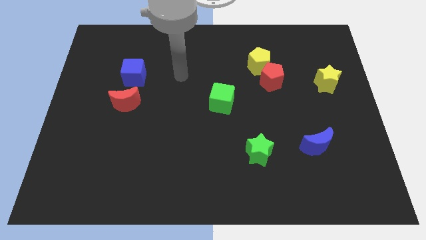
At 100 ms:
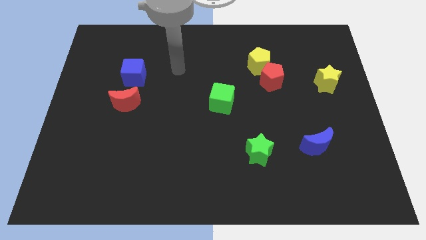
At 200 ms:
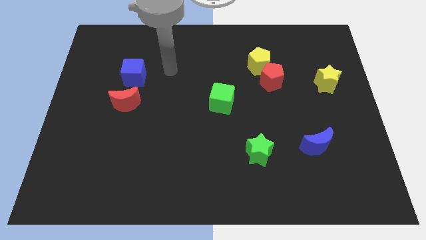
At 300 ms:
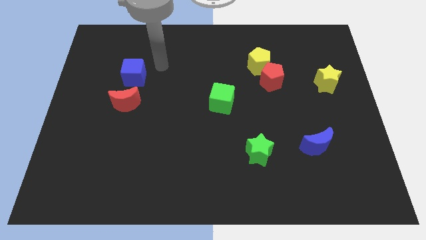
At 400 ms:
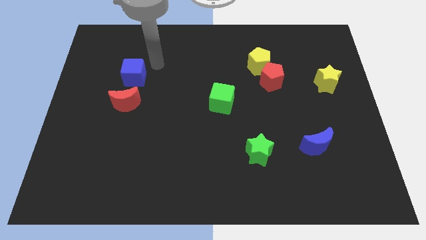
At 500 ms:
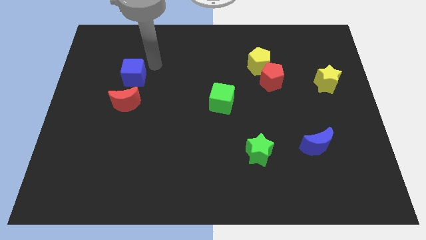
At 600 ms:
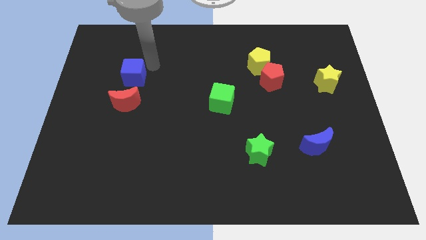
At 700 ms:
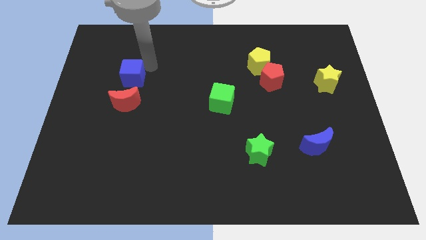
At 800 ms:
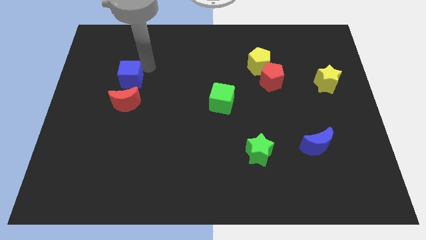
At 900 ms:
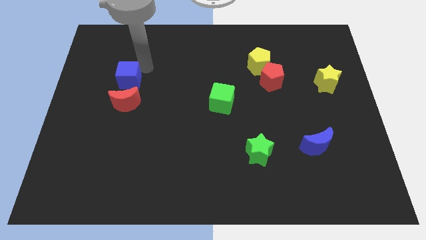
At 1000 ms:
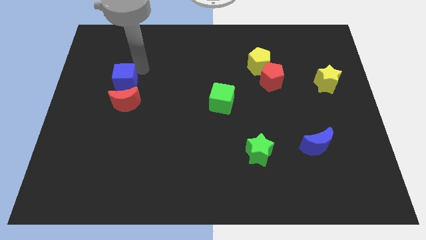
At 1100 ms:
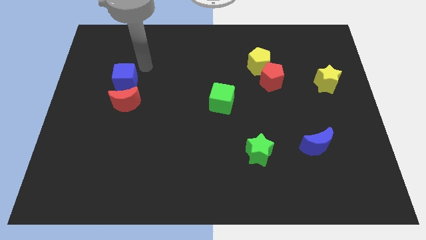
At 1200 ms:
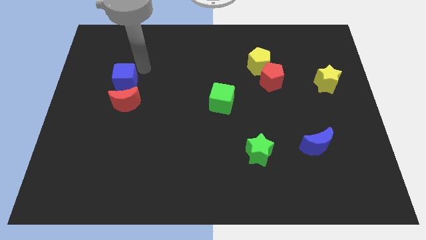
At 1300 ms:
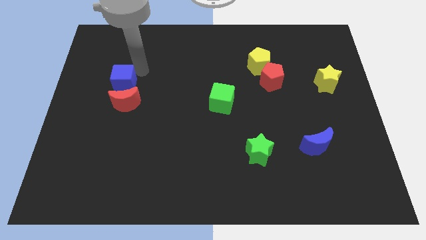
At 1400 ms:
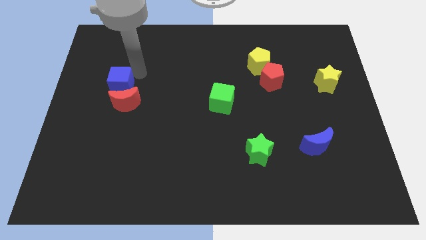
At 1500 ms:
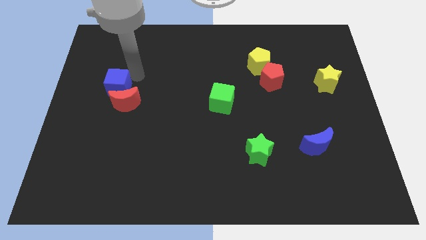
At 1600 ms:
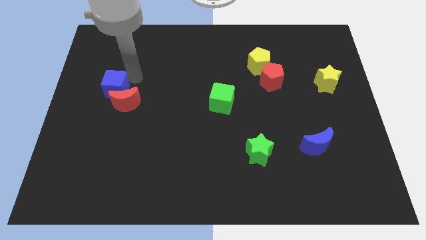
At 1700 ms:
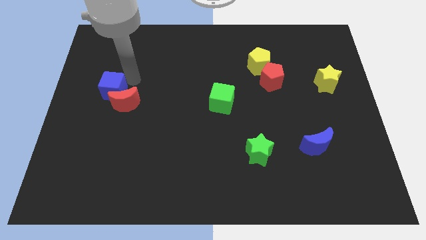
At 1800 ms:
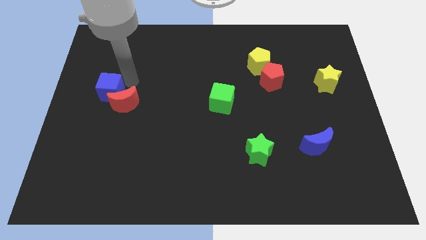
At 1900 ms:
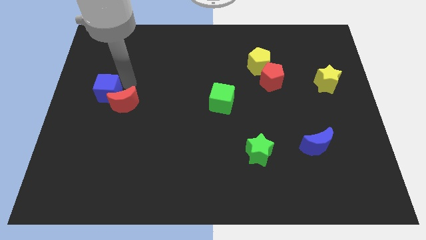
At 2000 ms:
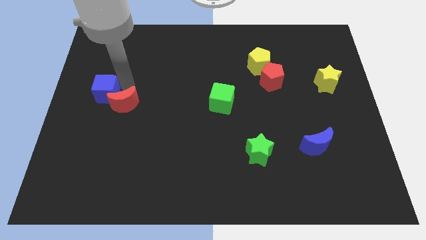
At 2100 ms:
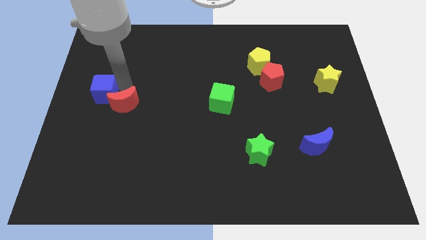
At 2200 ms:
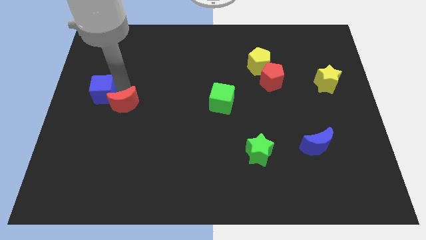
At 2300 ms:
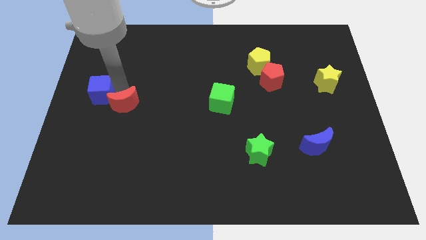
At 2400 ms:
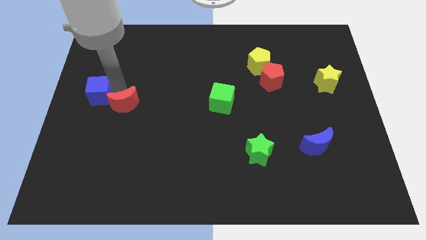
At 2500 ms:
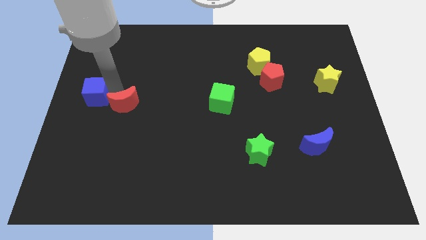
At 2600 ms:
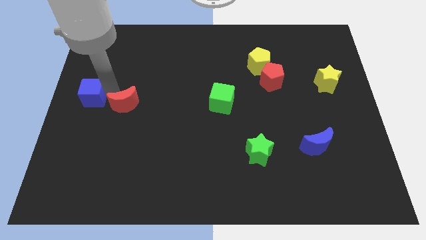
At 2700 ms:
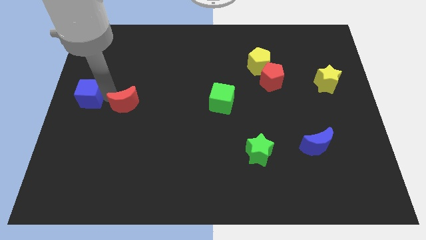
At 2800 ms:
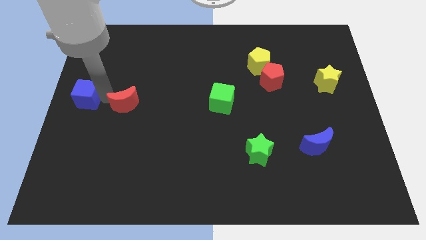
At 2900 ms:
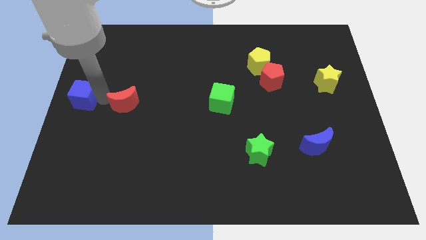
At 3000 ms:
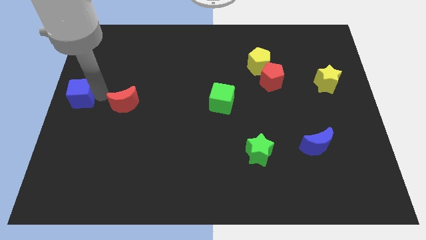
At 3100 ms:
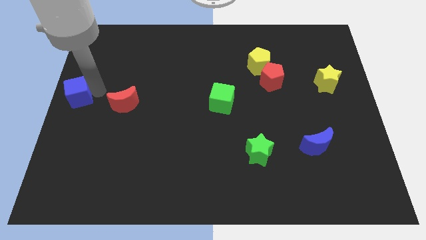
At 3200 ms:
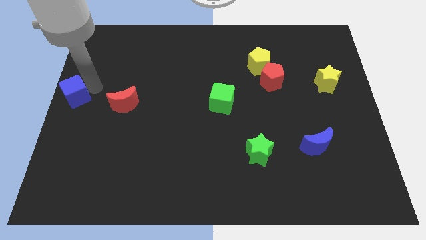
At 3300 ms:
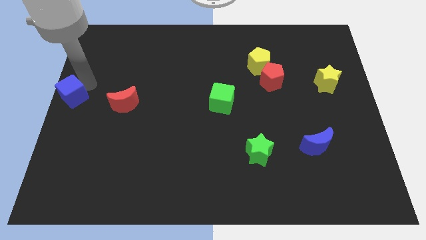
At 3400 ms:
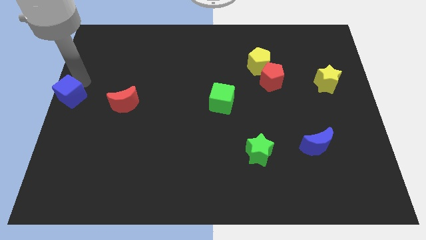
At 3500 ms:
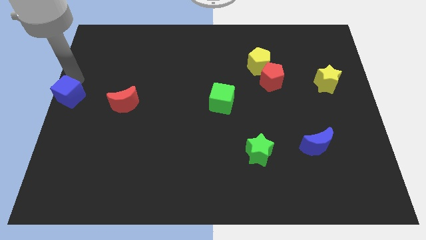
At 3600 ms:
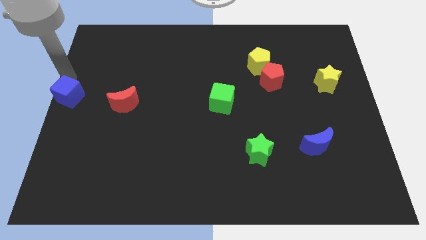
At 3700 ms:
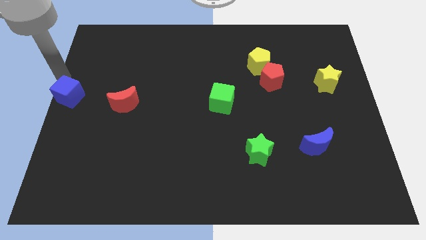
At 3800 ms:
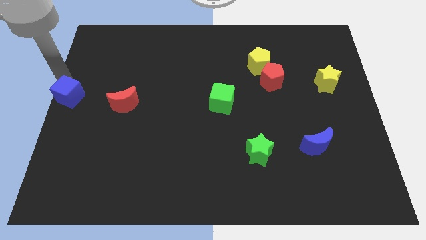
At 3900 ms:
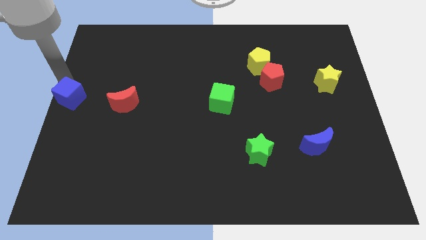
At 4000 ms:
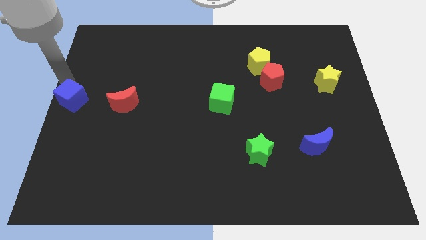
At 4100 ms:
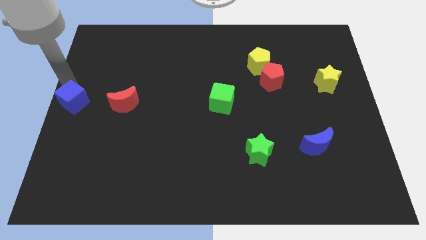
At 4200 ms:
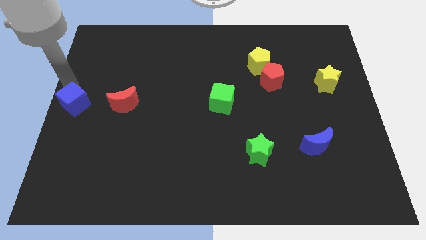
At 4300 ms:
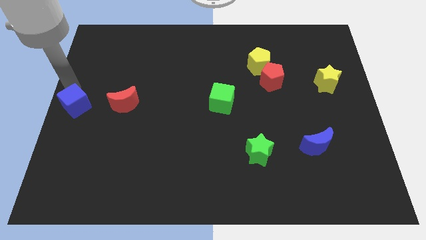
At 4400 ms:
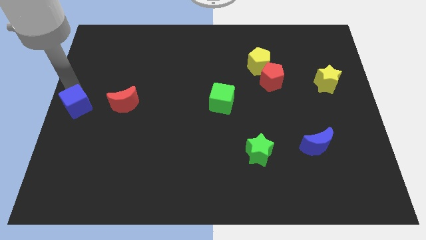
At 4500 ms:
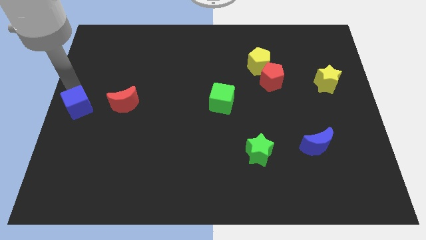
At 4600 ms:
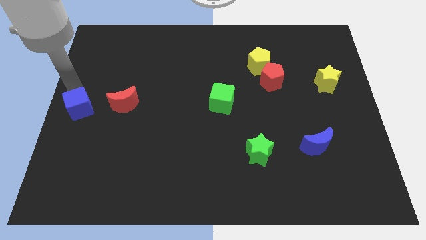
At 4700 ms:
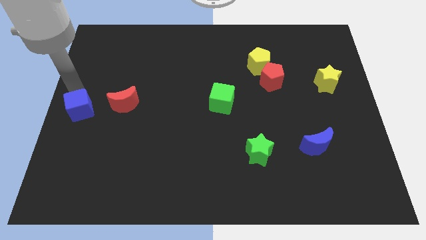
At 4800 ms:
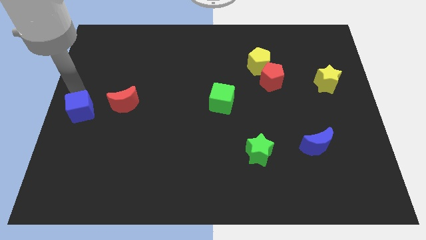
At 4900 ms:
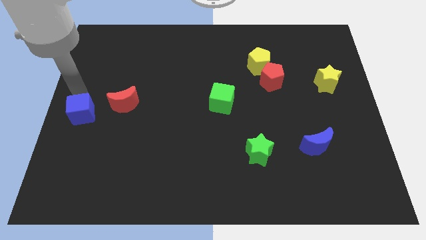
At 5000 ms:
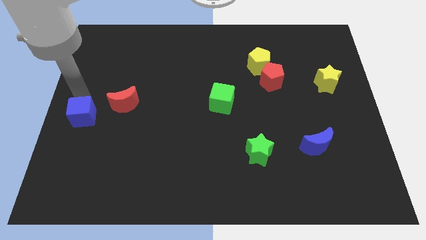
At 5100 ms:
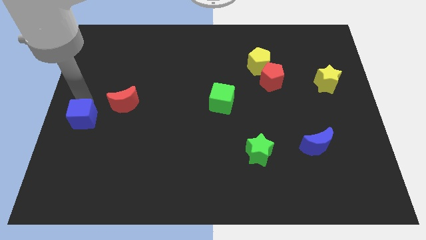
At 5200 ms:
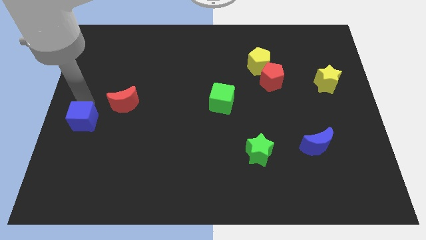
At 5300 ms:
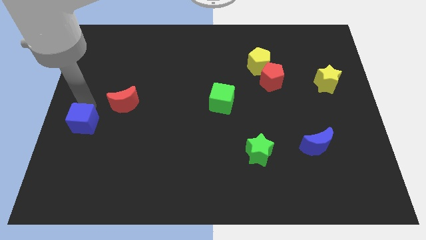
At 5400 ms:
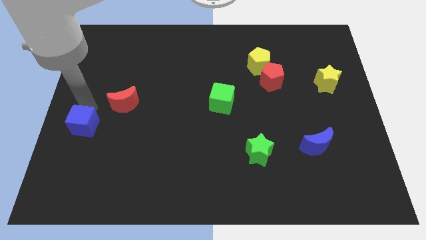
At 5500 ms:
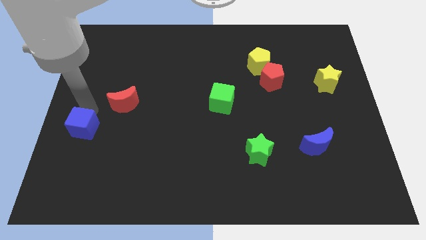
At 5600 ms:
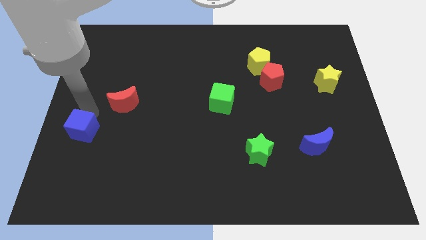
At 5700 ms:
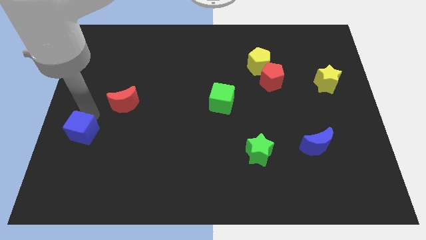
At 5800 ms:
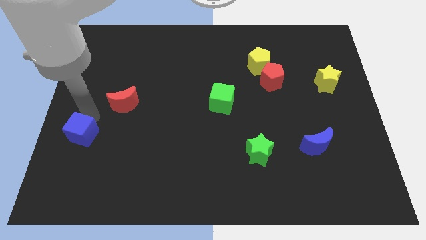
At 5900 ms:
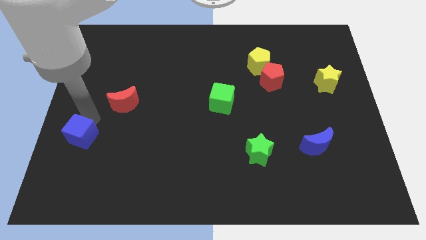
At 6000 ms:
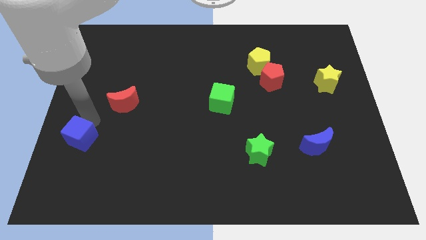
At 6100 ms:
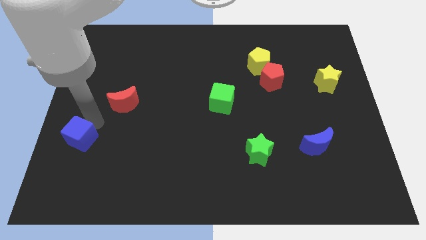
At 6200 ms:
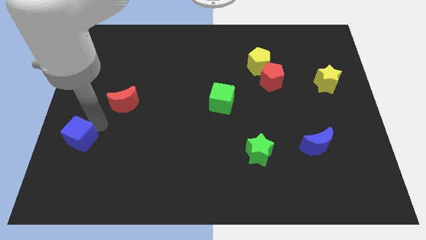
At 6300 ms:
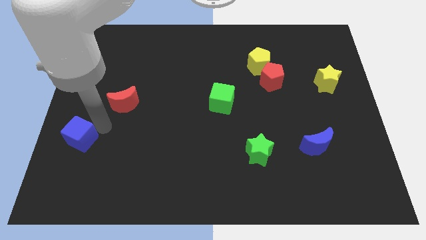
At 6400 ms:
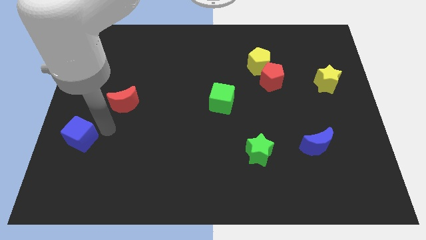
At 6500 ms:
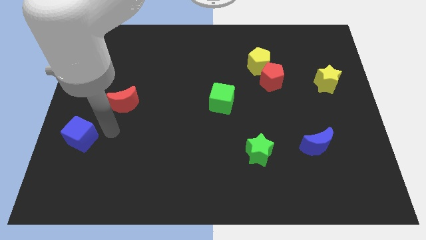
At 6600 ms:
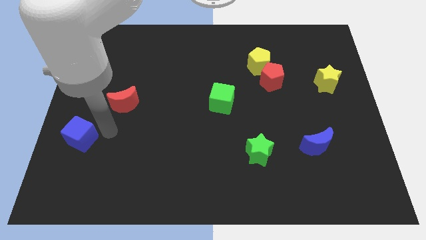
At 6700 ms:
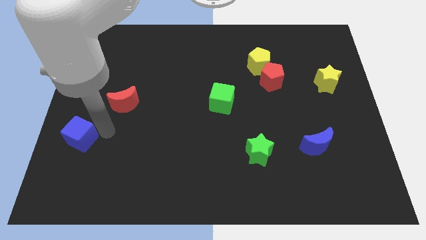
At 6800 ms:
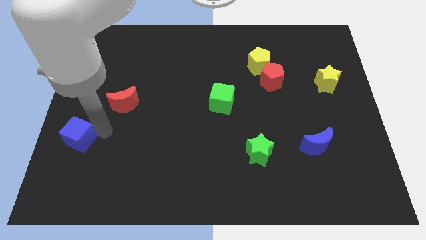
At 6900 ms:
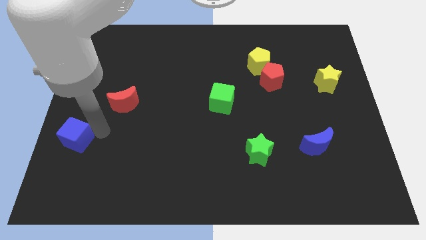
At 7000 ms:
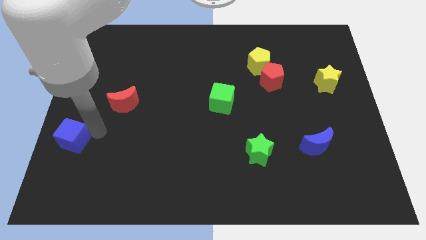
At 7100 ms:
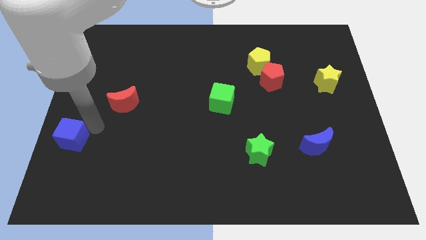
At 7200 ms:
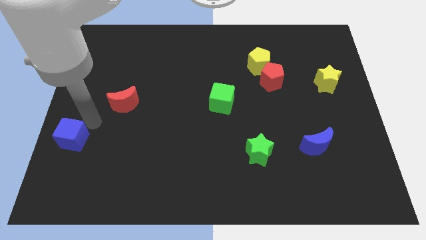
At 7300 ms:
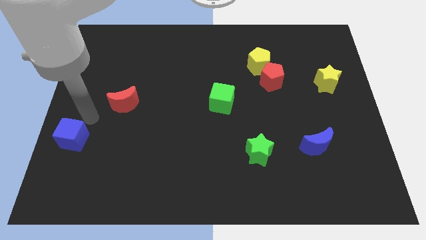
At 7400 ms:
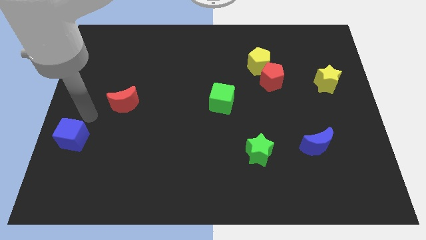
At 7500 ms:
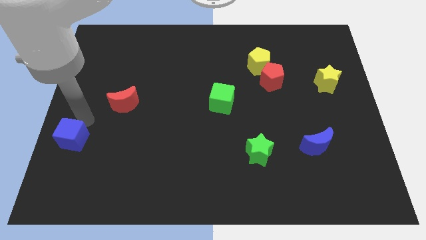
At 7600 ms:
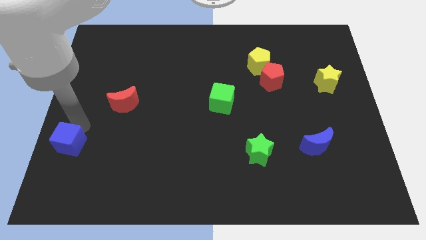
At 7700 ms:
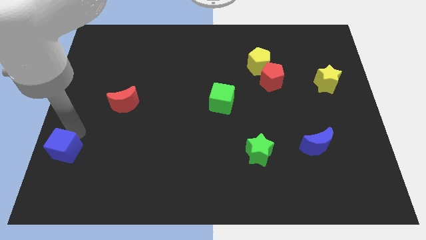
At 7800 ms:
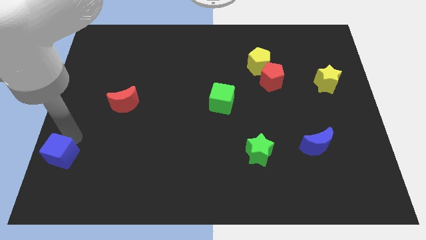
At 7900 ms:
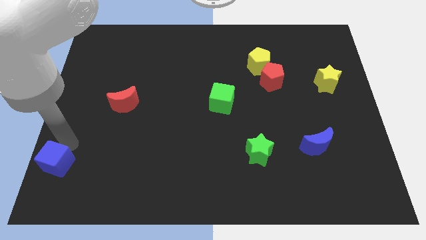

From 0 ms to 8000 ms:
put the blue cube to the bottom left corner
